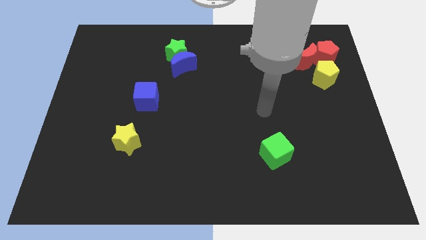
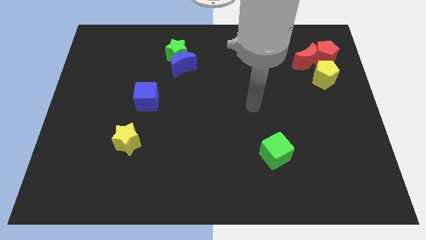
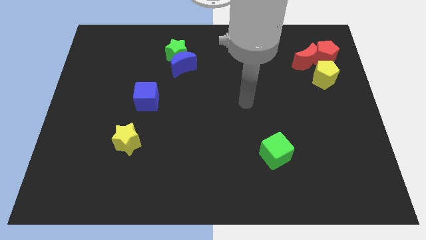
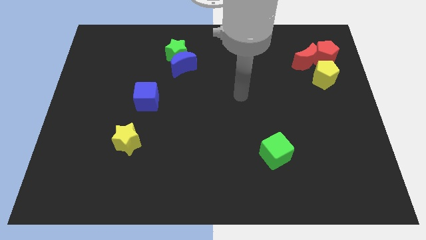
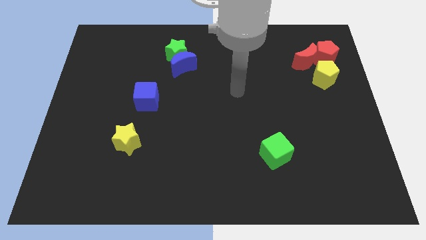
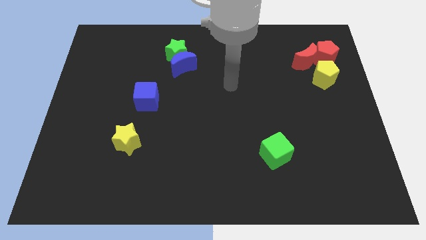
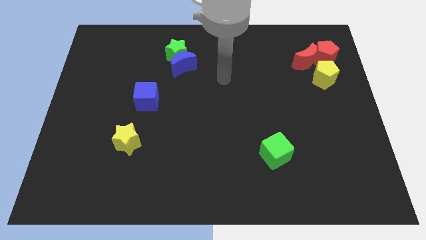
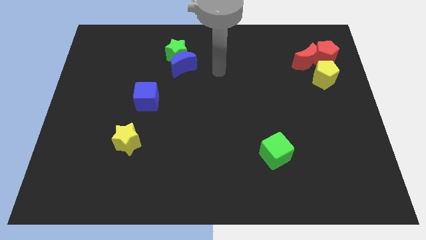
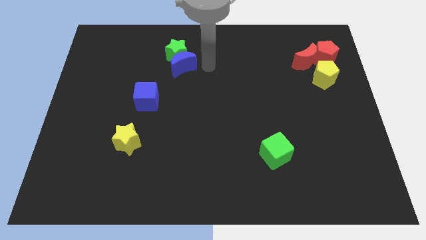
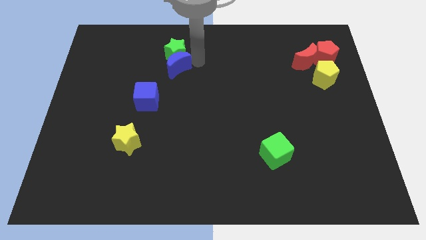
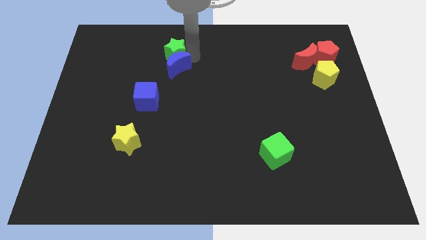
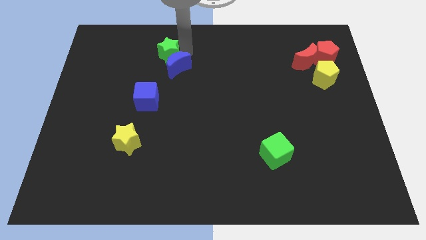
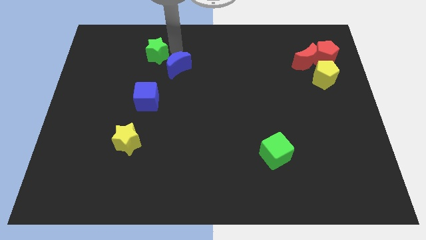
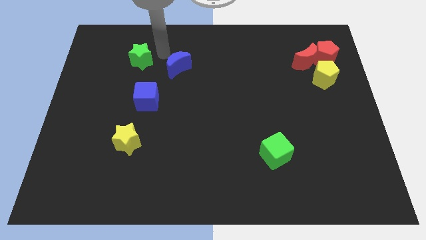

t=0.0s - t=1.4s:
separate the blue moon from the green star

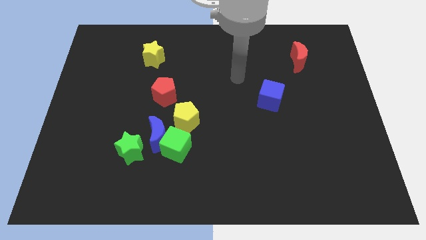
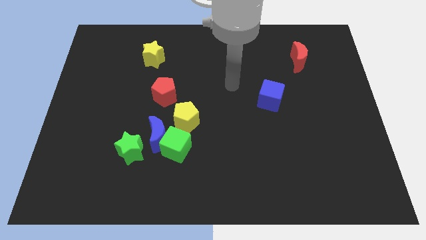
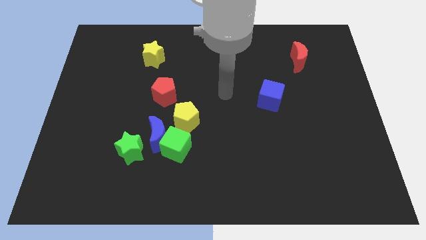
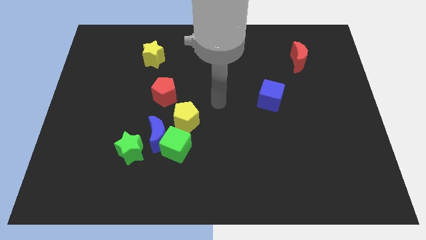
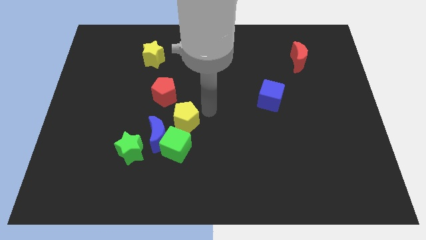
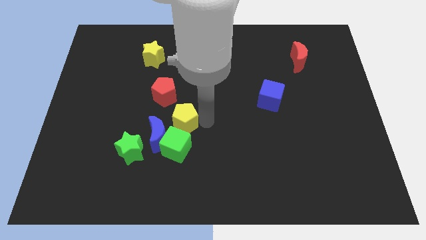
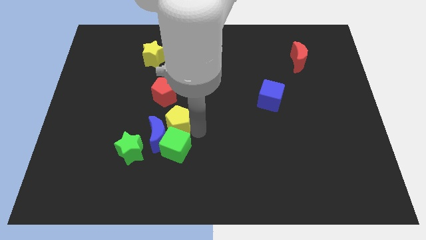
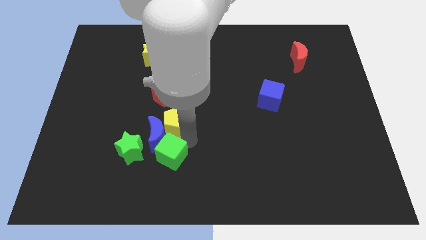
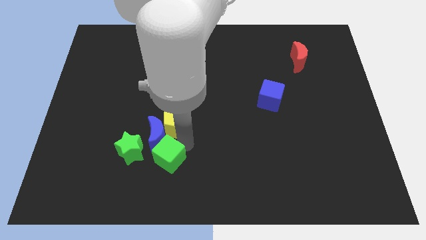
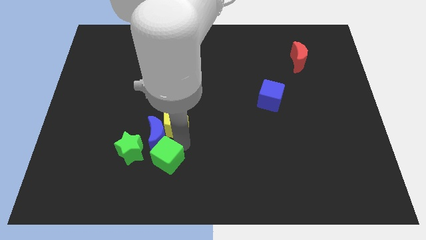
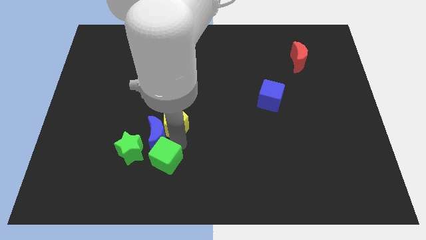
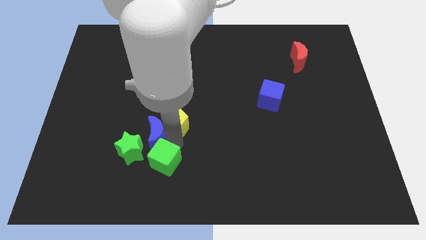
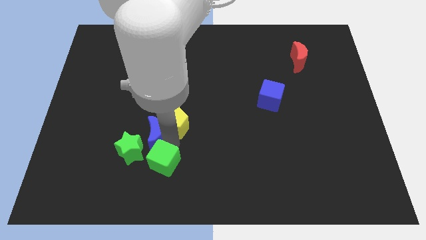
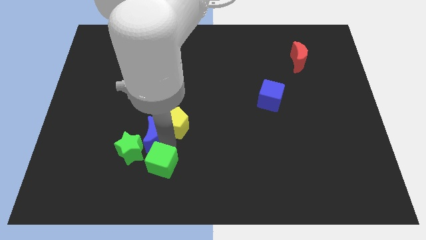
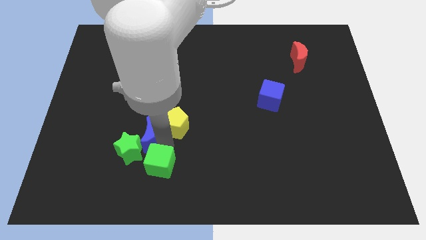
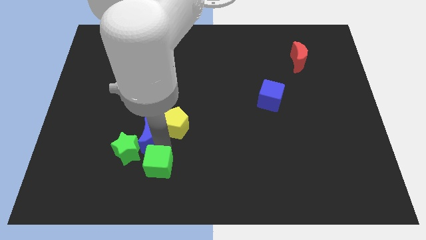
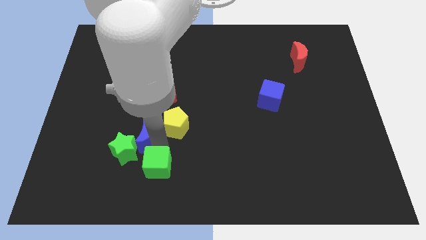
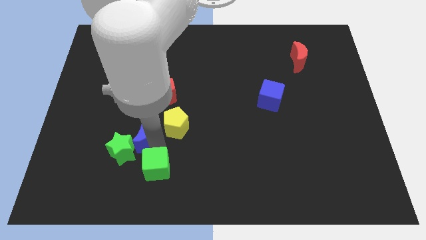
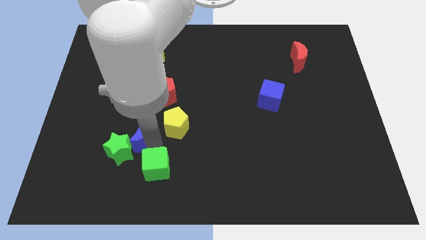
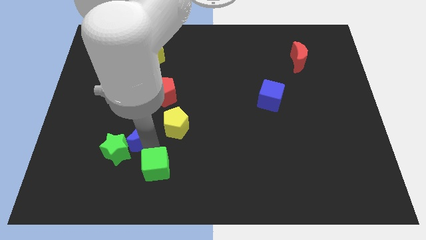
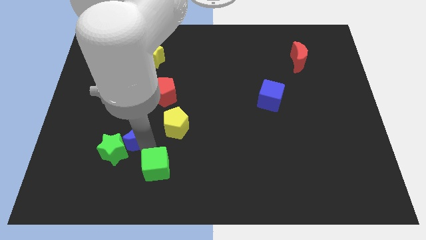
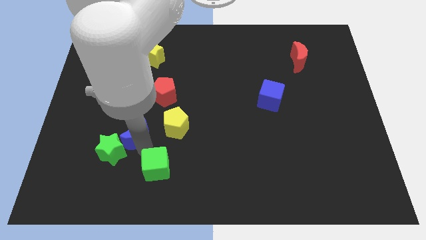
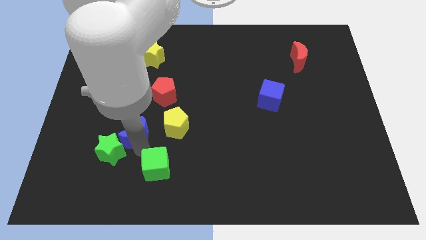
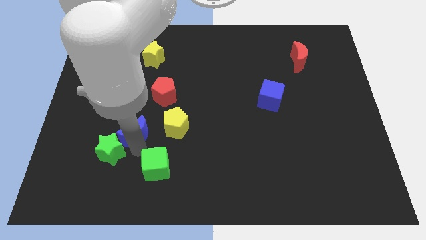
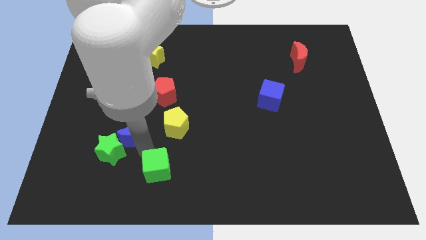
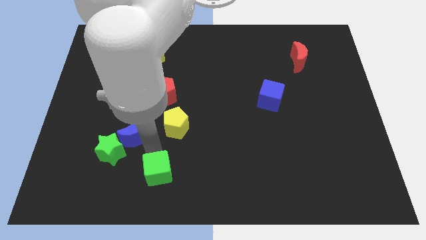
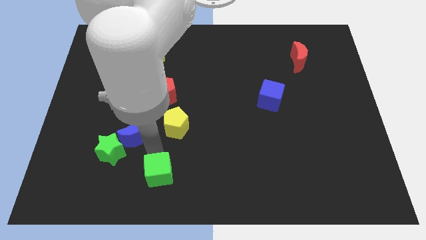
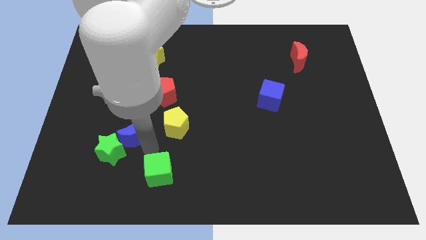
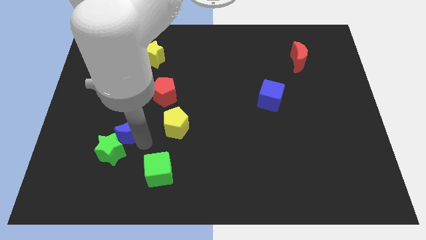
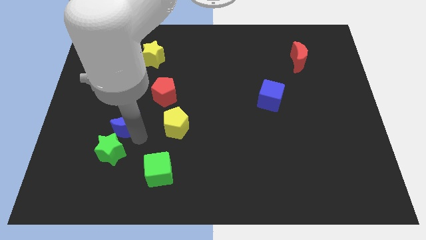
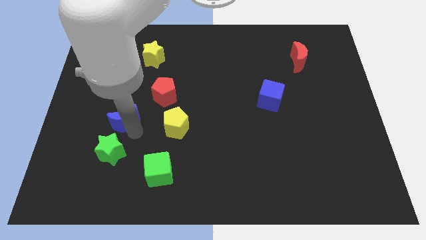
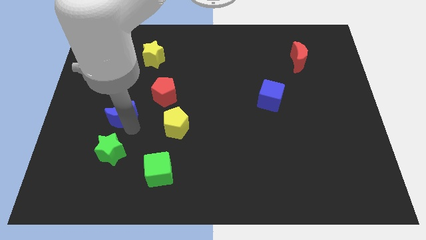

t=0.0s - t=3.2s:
move the blue moon away from the group of blocks

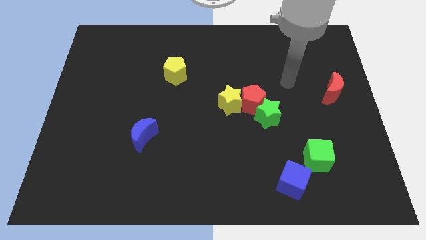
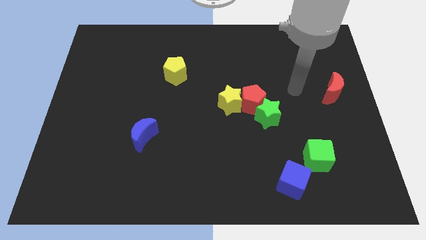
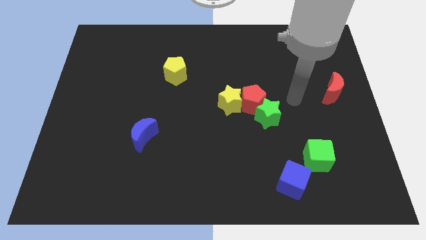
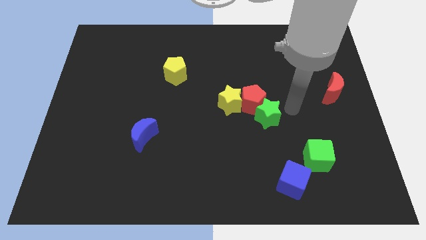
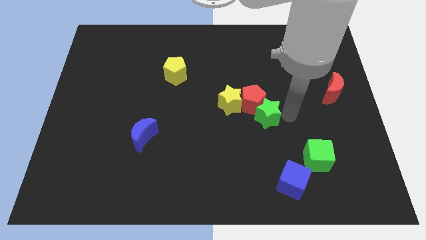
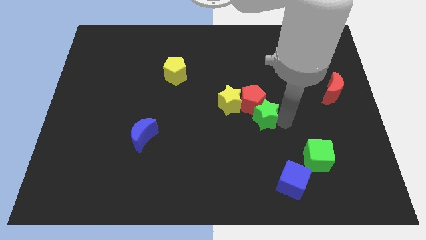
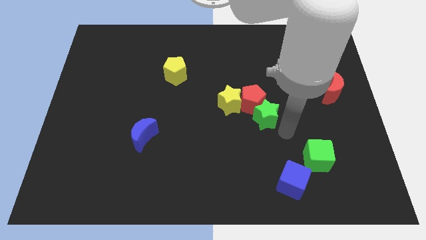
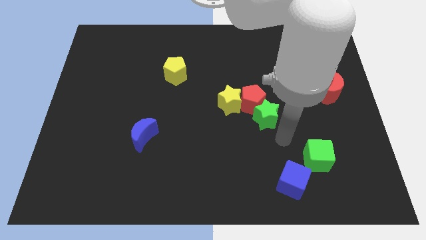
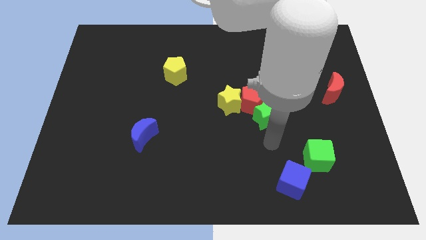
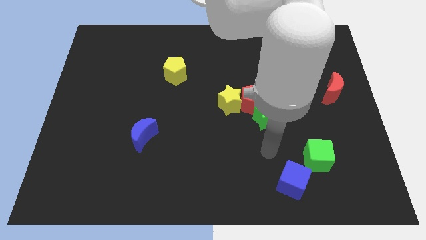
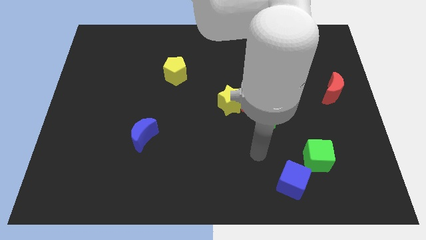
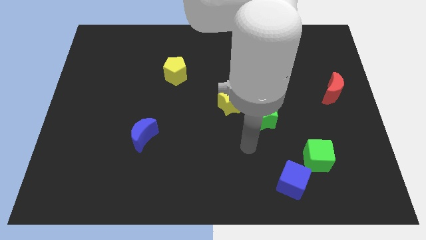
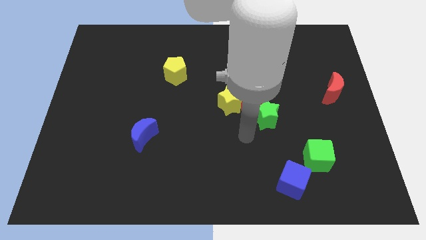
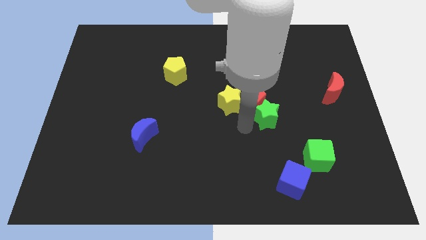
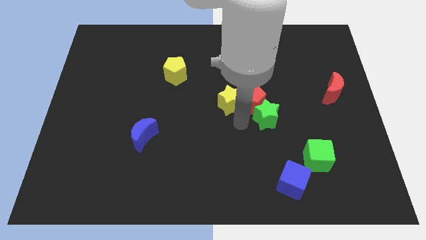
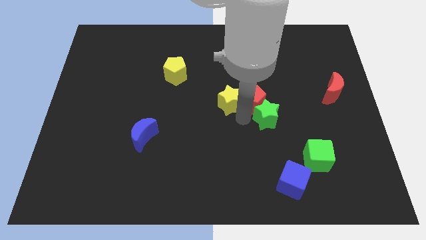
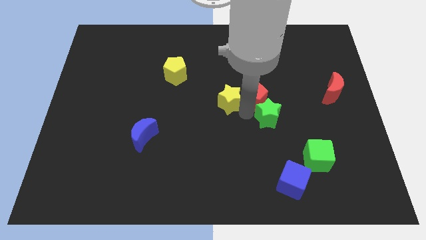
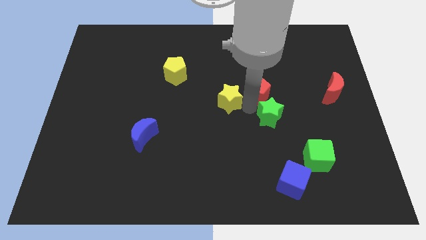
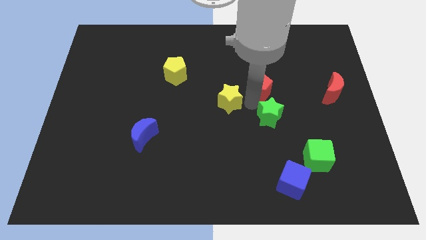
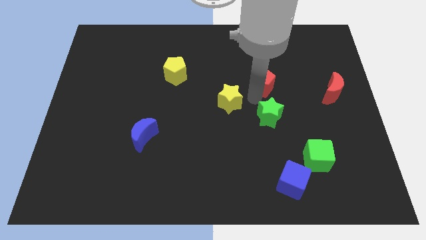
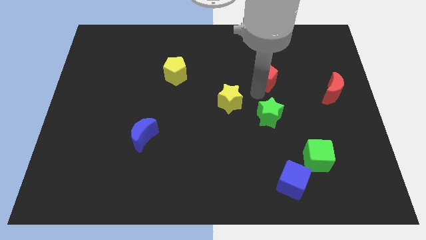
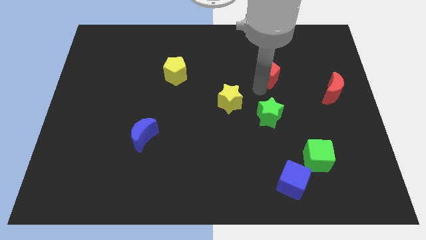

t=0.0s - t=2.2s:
move the red pentagon away from the yellow star and green star

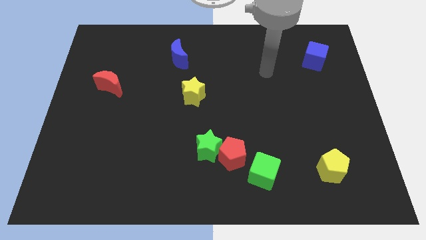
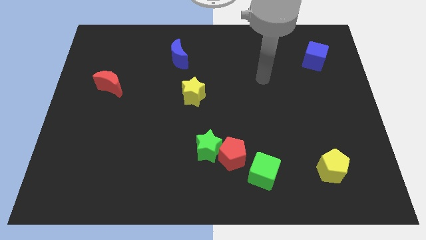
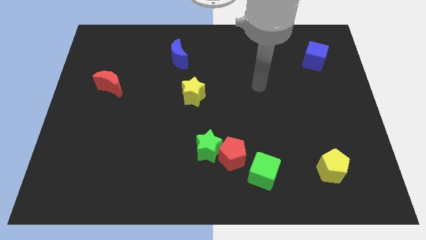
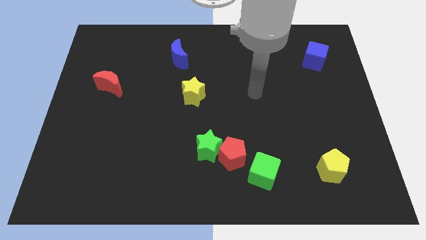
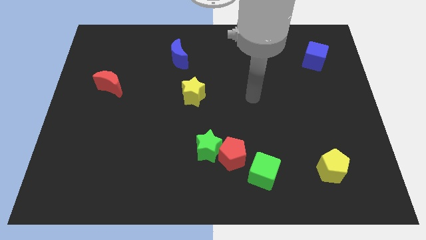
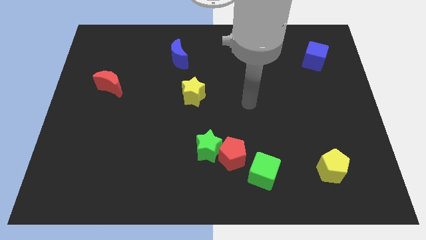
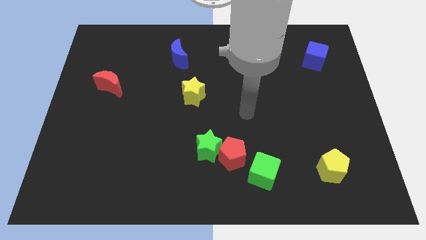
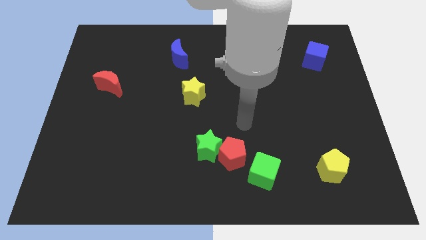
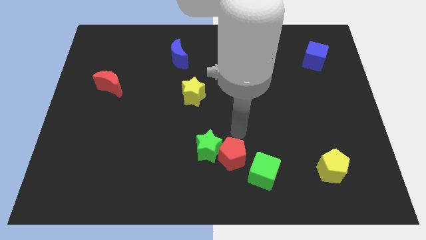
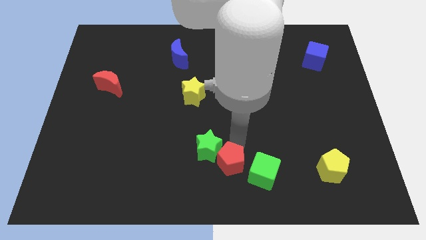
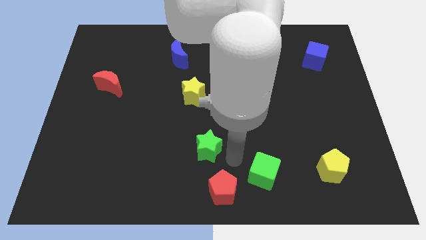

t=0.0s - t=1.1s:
separate the green star from the red pentagon

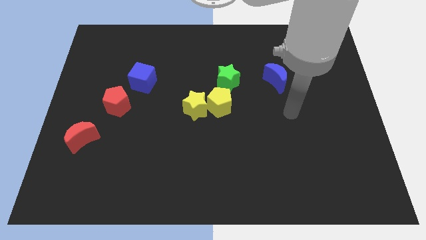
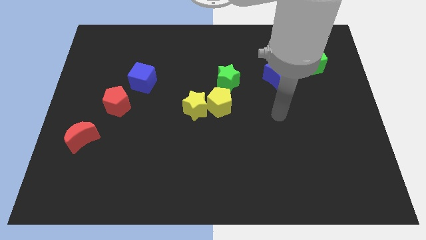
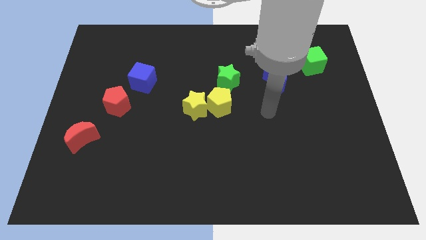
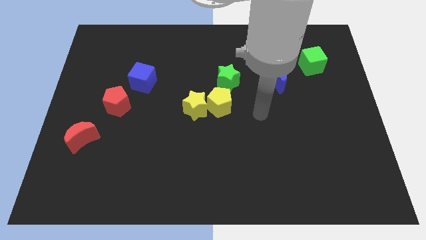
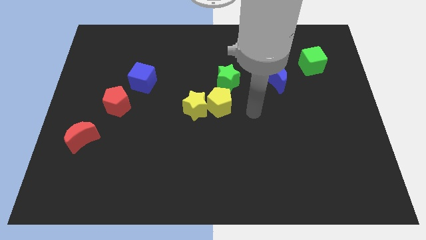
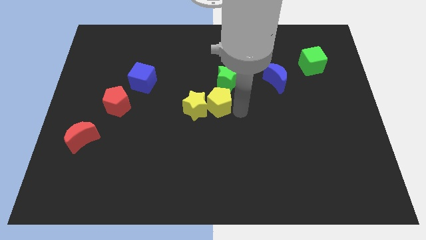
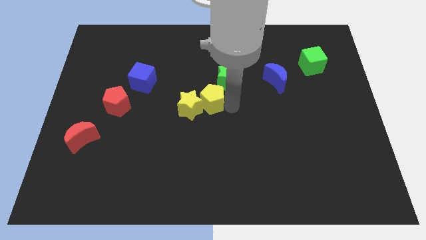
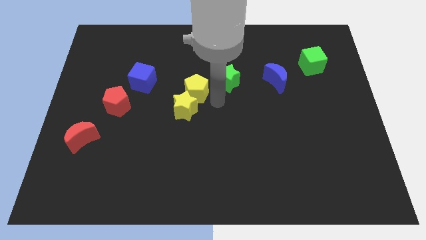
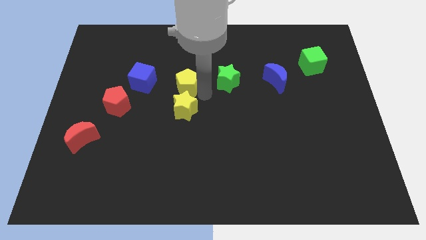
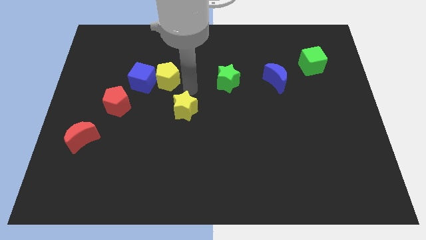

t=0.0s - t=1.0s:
pull the yellow star apart from the yellow pentagon

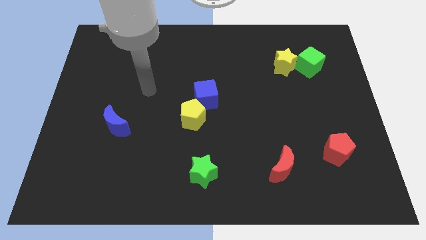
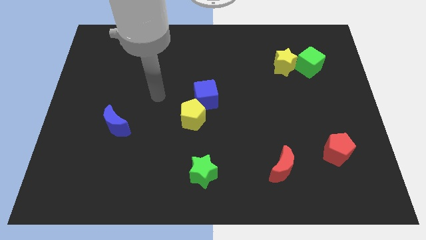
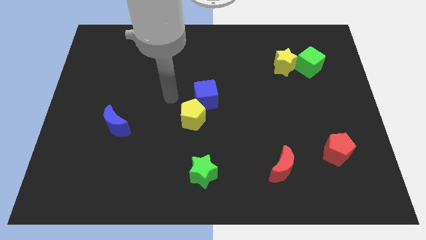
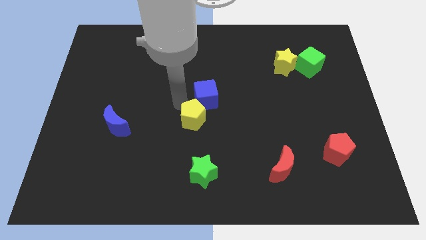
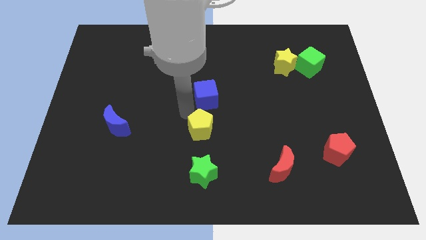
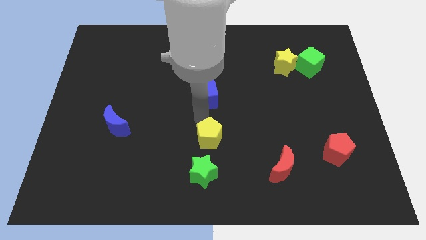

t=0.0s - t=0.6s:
pull the blue cube apart from the yellow pentagon
